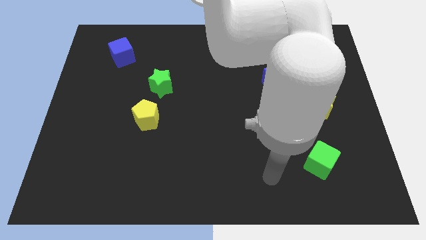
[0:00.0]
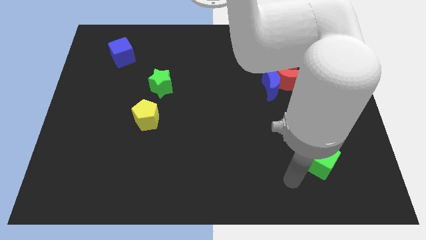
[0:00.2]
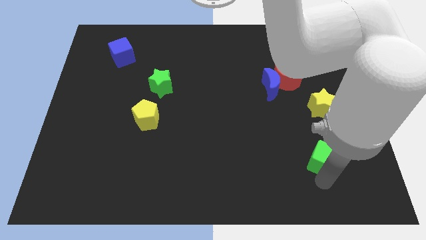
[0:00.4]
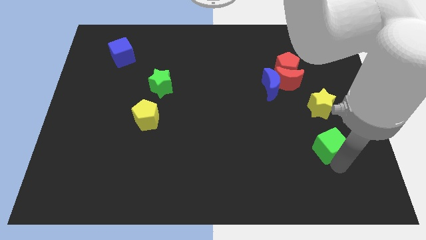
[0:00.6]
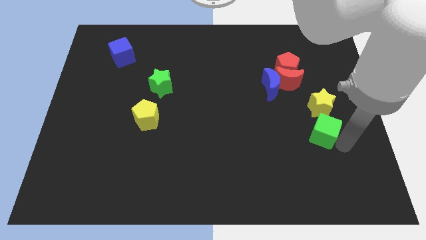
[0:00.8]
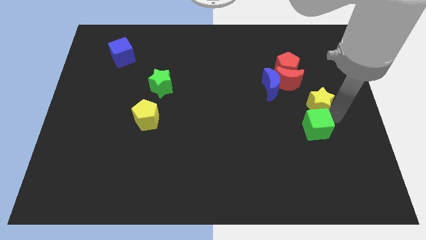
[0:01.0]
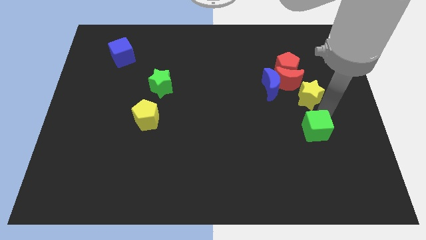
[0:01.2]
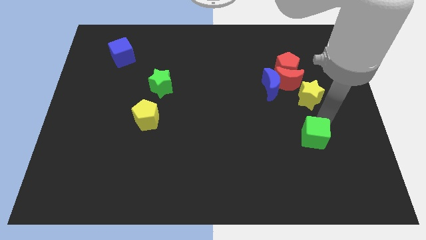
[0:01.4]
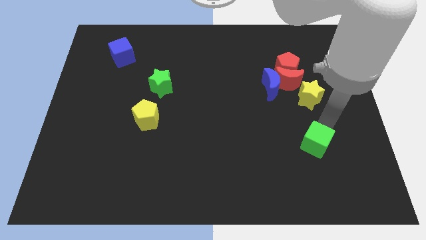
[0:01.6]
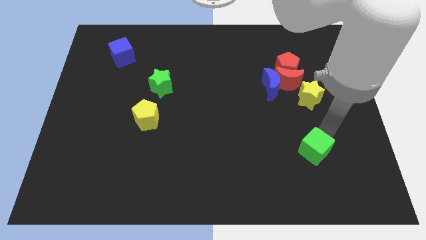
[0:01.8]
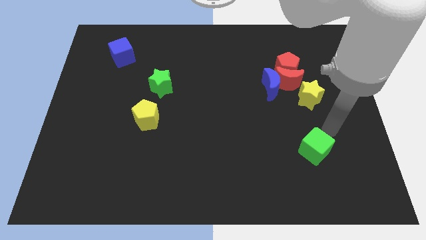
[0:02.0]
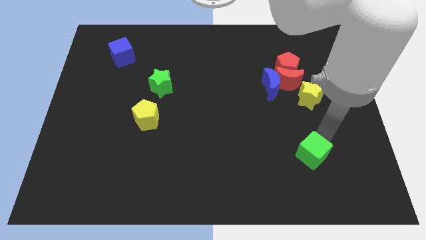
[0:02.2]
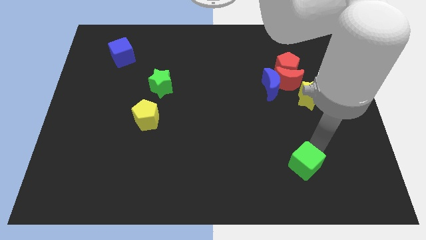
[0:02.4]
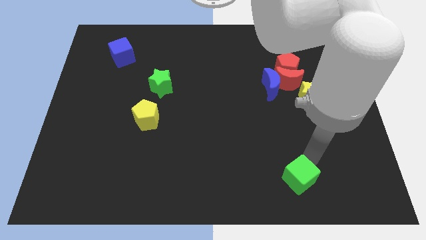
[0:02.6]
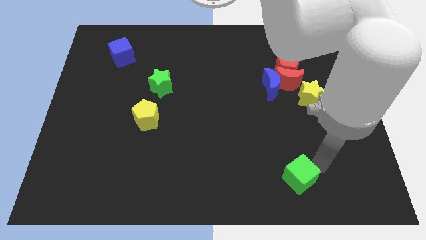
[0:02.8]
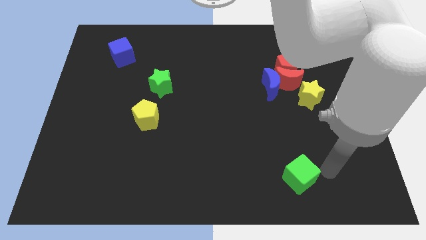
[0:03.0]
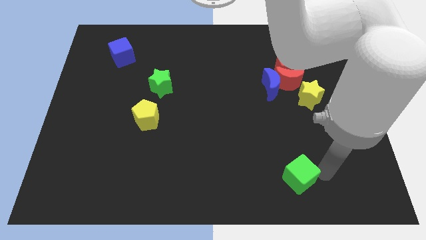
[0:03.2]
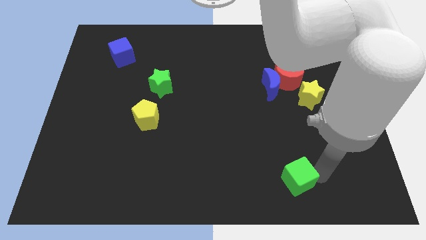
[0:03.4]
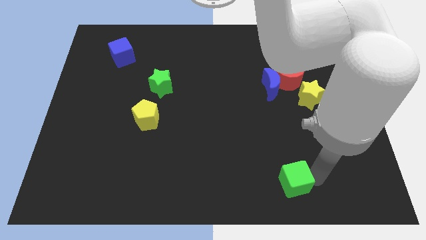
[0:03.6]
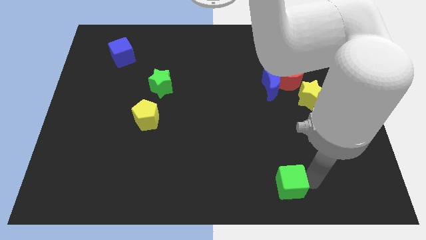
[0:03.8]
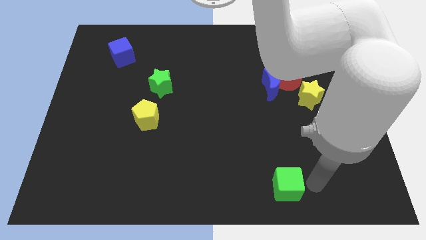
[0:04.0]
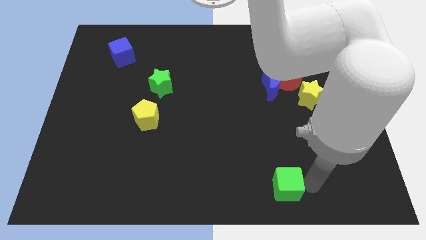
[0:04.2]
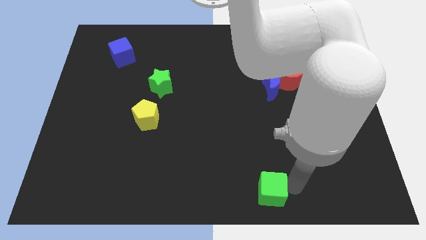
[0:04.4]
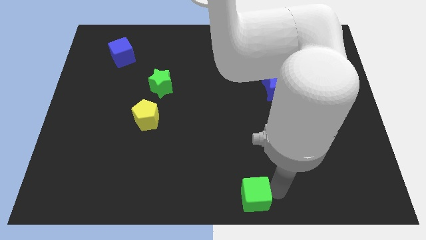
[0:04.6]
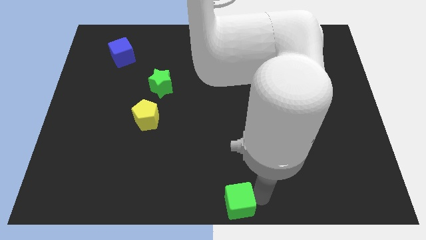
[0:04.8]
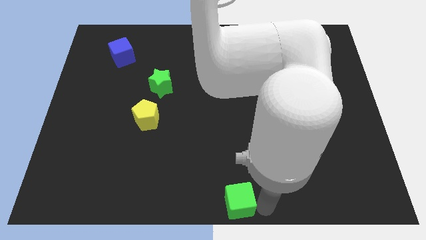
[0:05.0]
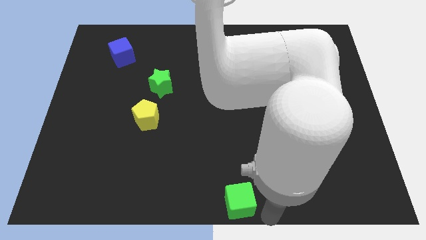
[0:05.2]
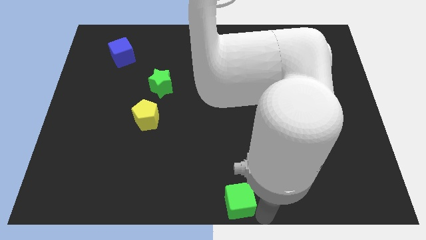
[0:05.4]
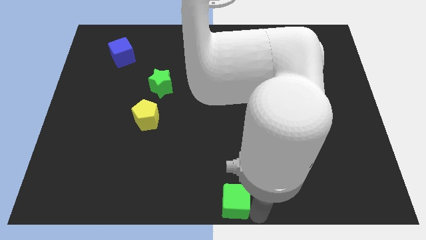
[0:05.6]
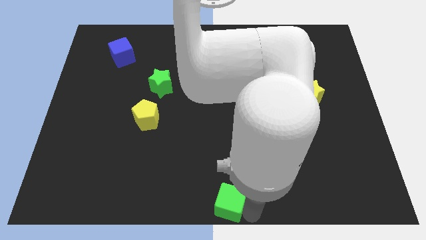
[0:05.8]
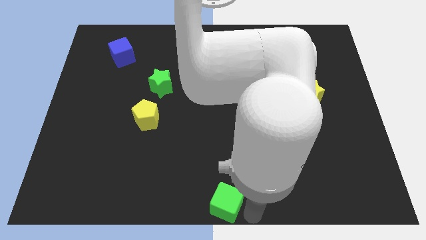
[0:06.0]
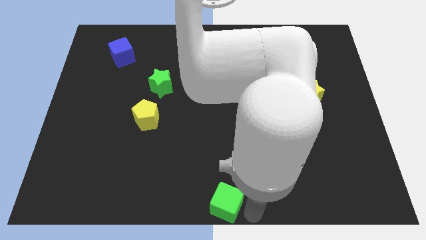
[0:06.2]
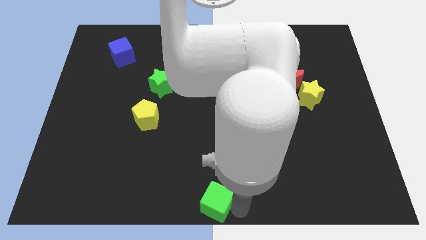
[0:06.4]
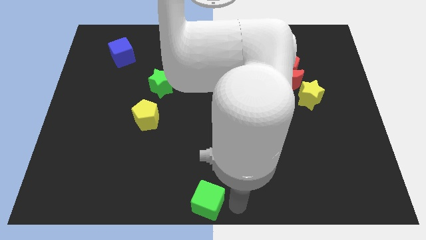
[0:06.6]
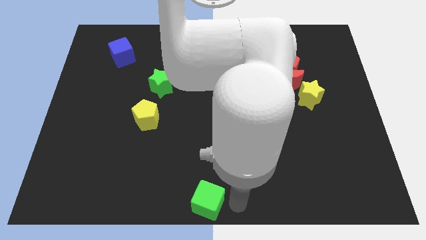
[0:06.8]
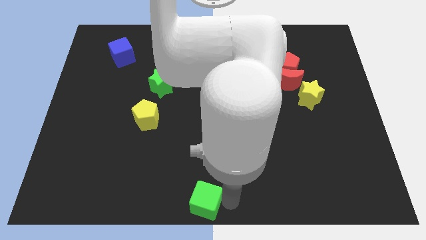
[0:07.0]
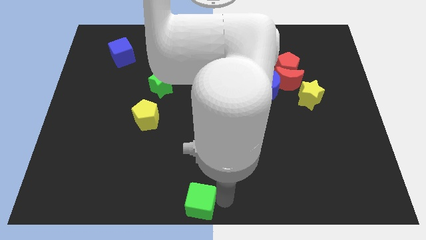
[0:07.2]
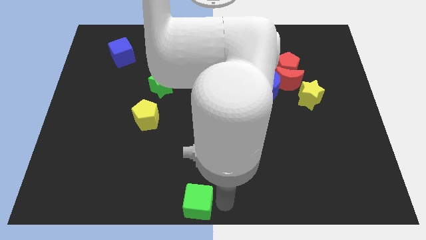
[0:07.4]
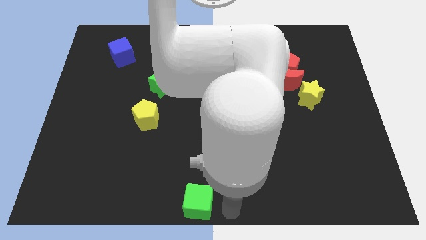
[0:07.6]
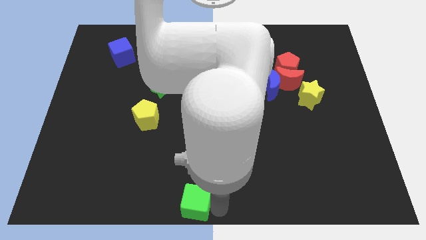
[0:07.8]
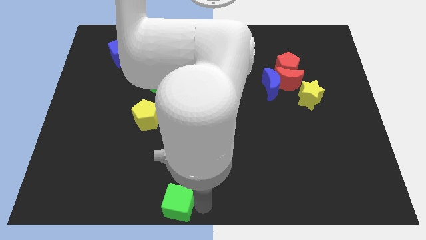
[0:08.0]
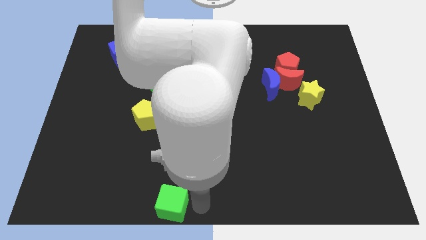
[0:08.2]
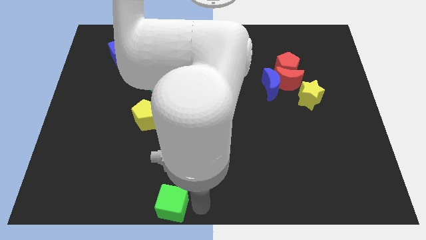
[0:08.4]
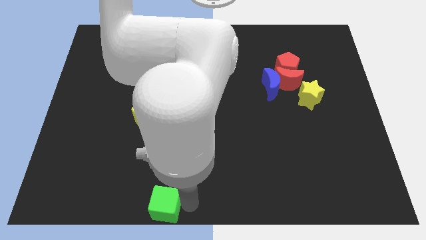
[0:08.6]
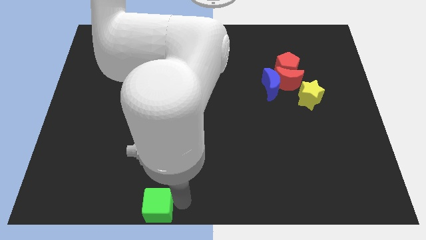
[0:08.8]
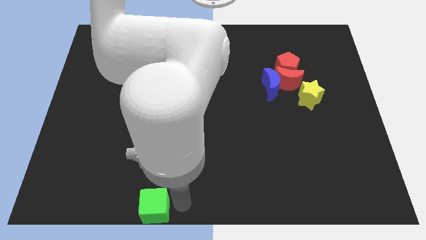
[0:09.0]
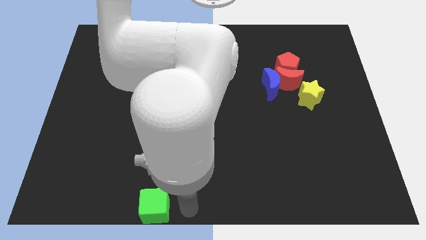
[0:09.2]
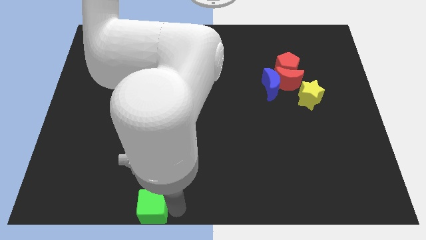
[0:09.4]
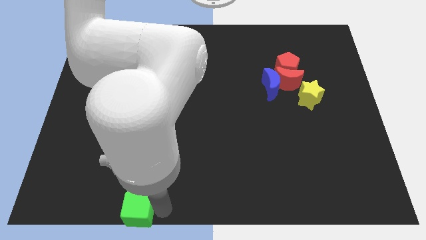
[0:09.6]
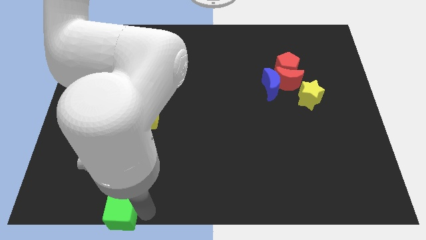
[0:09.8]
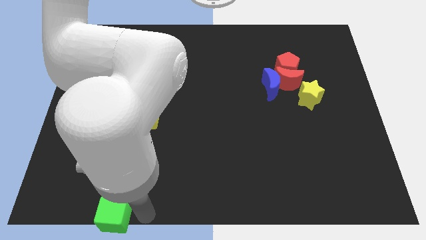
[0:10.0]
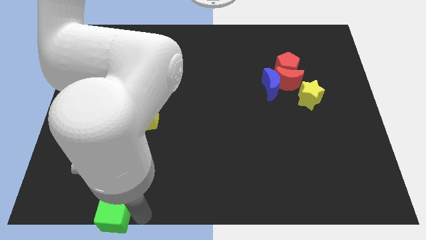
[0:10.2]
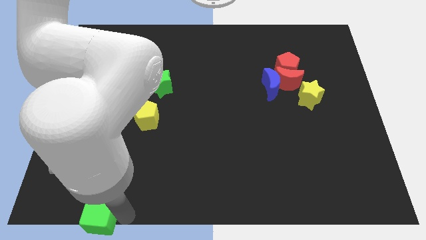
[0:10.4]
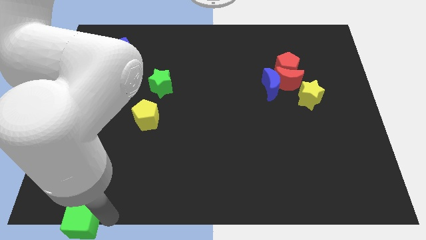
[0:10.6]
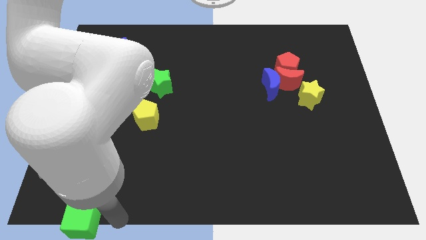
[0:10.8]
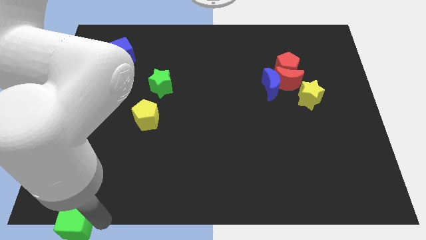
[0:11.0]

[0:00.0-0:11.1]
push the green cube to the bottom left of the board

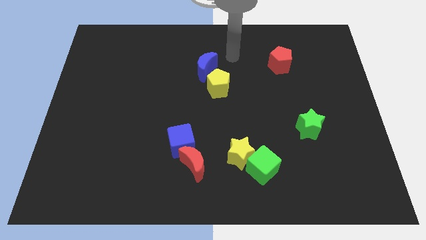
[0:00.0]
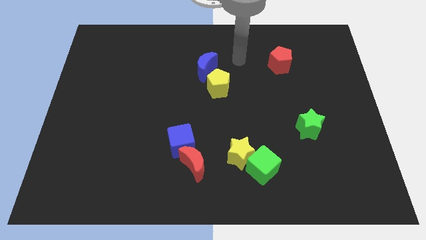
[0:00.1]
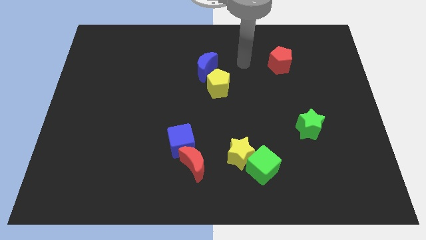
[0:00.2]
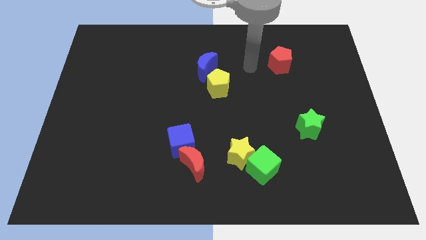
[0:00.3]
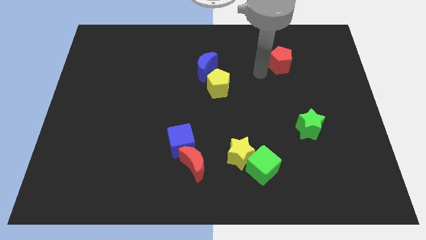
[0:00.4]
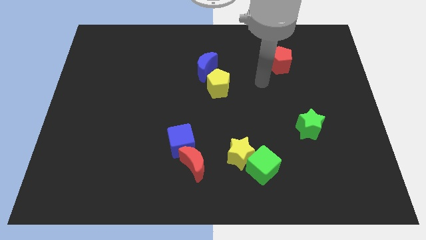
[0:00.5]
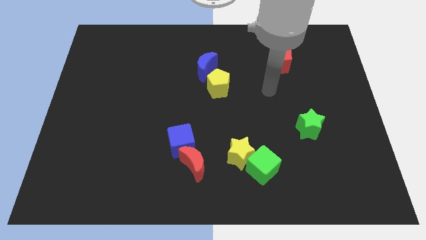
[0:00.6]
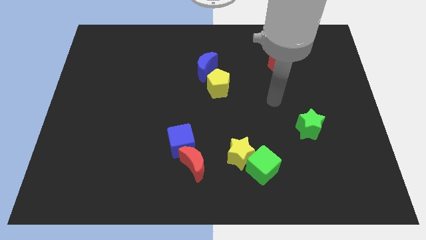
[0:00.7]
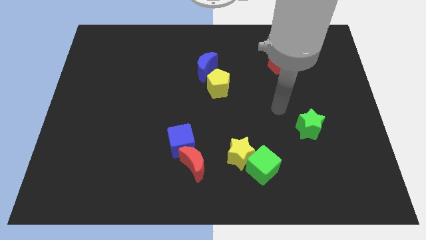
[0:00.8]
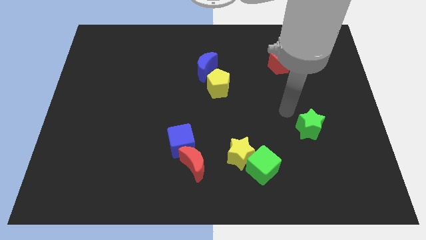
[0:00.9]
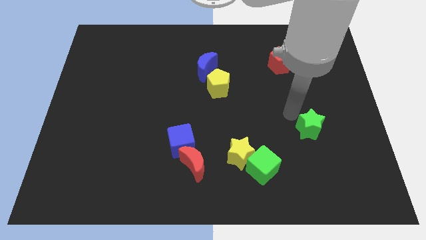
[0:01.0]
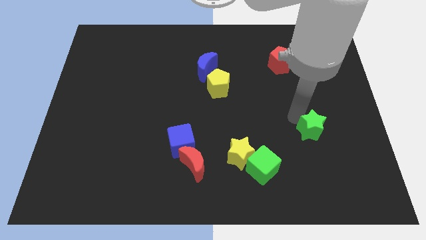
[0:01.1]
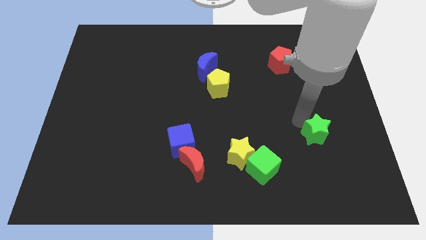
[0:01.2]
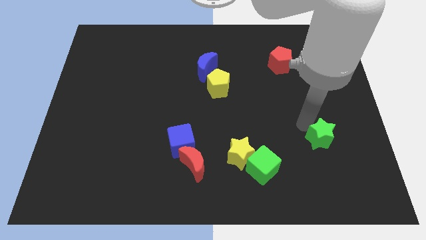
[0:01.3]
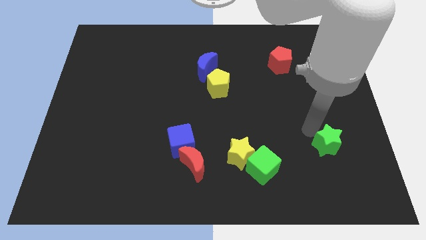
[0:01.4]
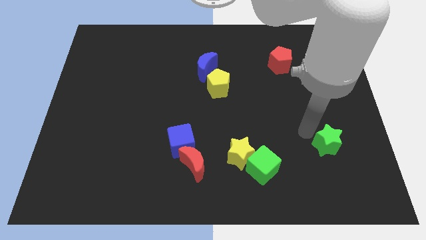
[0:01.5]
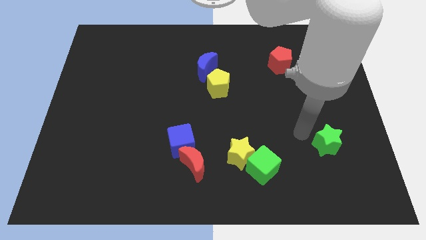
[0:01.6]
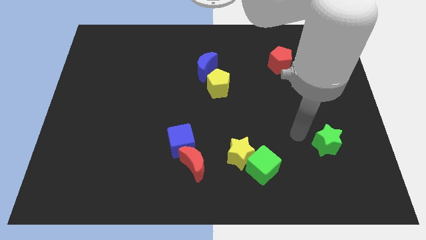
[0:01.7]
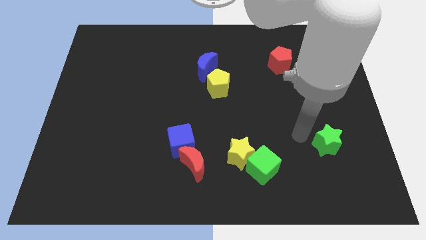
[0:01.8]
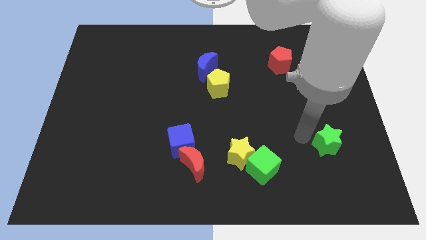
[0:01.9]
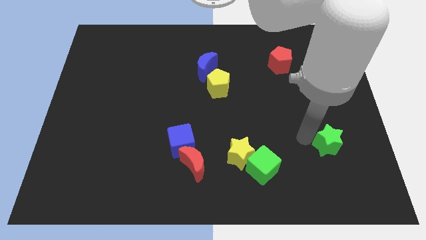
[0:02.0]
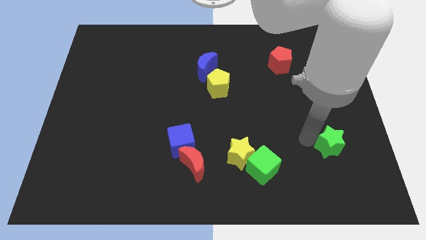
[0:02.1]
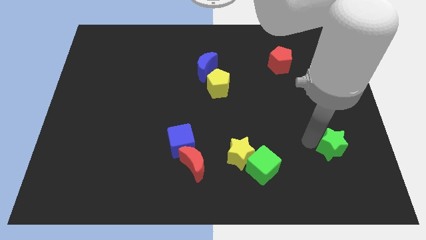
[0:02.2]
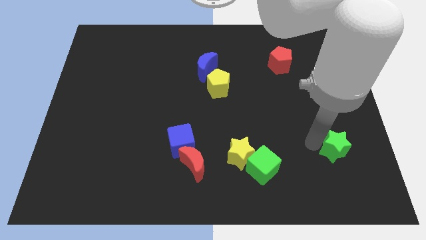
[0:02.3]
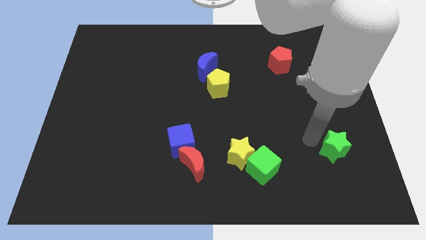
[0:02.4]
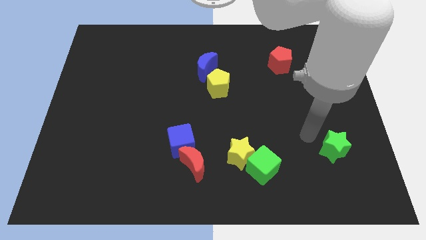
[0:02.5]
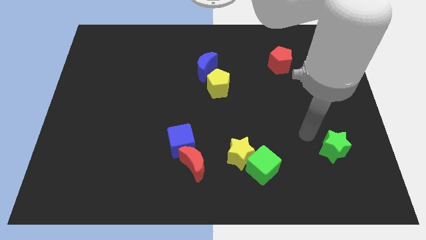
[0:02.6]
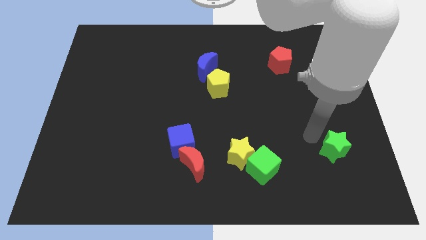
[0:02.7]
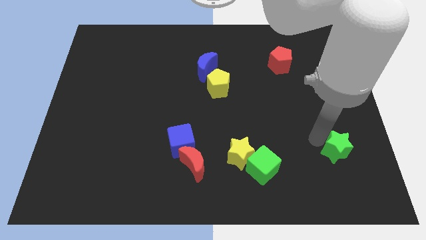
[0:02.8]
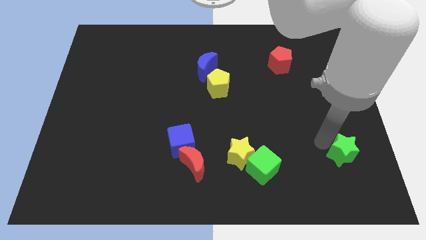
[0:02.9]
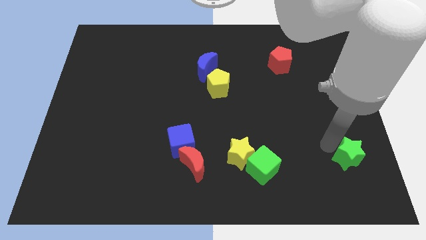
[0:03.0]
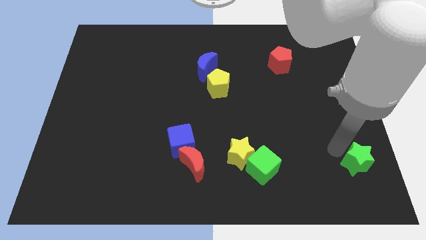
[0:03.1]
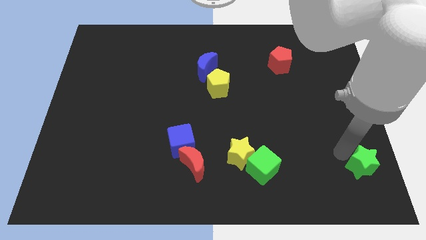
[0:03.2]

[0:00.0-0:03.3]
move the green star to the lower right corner
